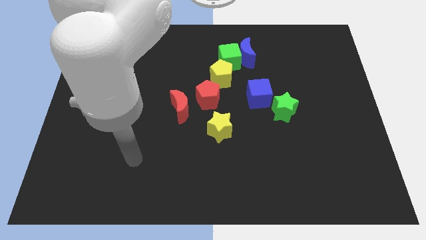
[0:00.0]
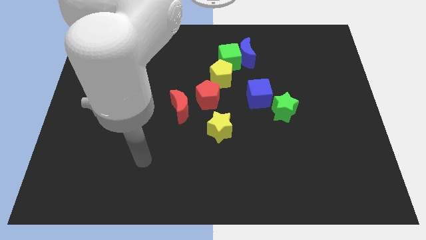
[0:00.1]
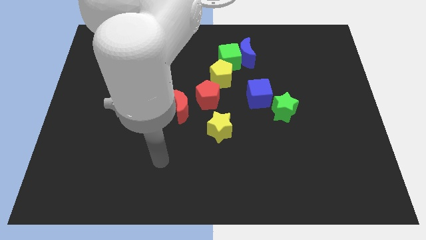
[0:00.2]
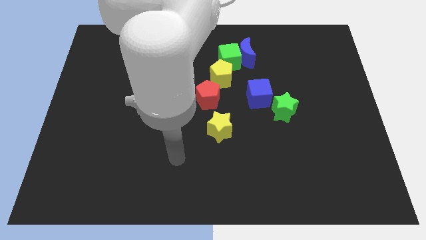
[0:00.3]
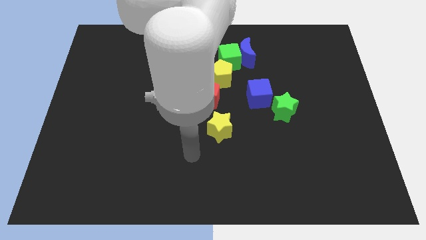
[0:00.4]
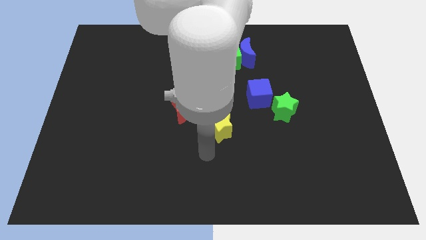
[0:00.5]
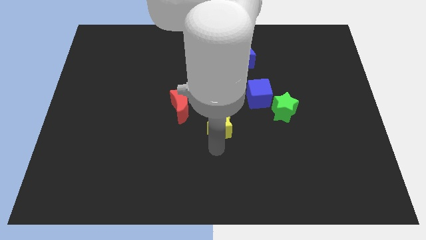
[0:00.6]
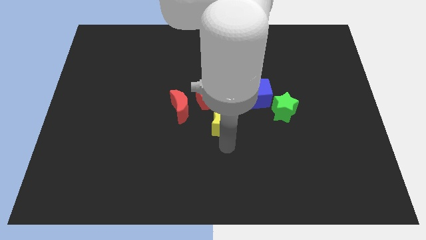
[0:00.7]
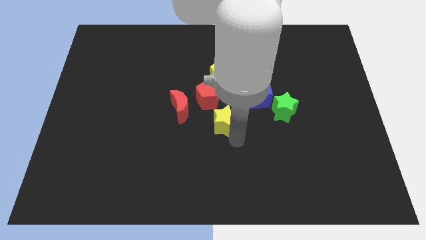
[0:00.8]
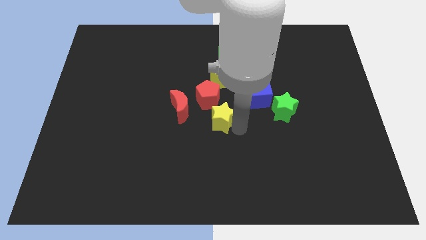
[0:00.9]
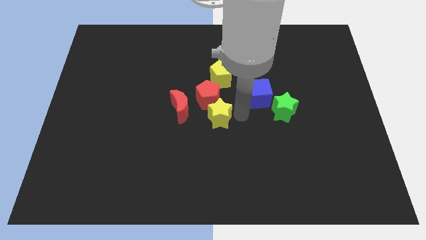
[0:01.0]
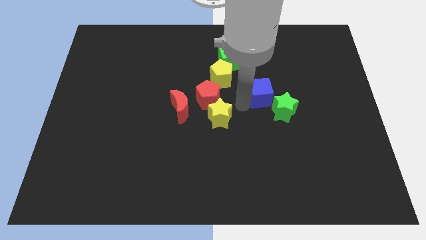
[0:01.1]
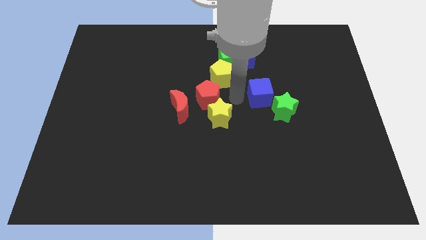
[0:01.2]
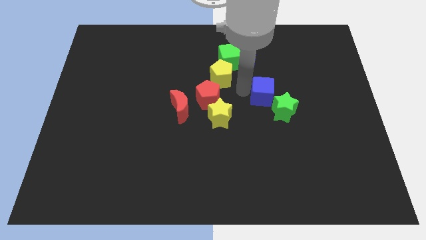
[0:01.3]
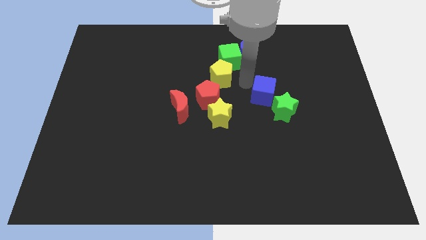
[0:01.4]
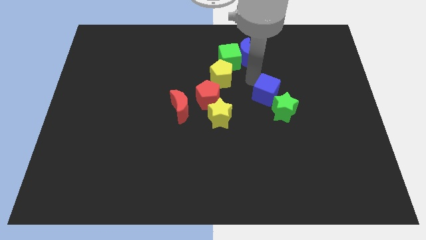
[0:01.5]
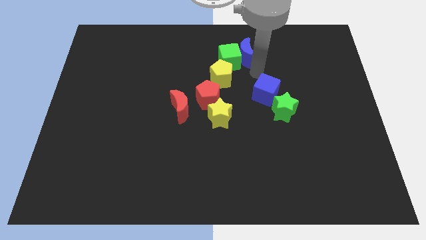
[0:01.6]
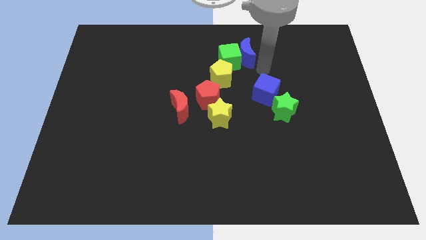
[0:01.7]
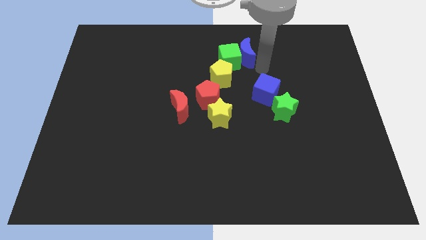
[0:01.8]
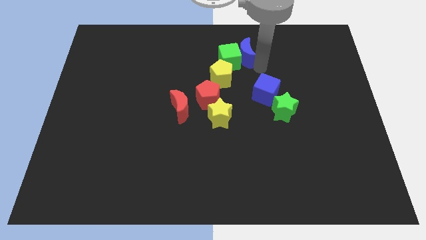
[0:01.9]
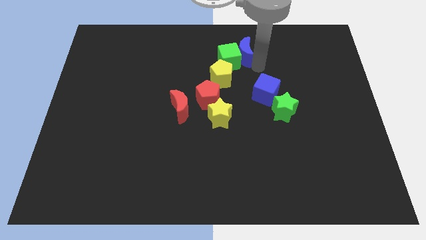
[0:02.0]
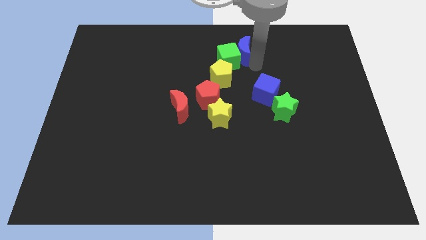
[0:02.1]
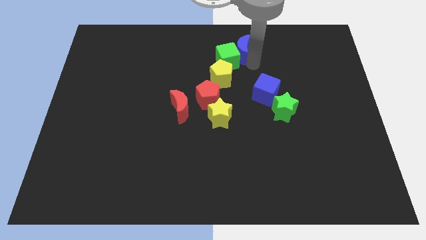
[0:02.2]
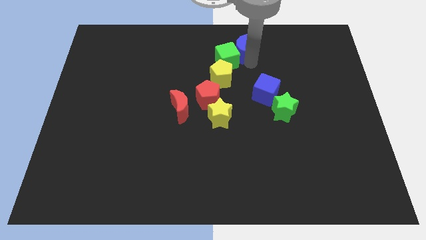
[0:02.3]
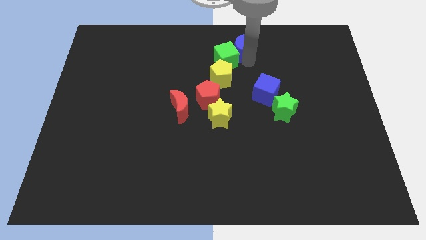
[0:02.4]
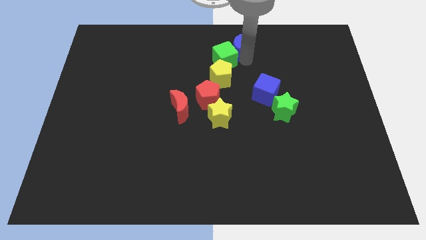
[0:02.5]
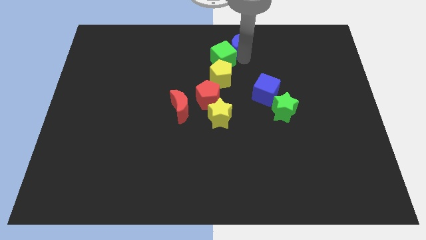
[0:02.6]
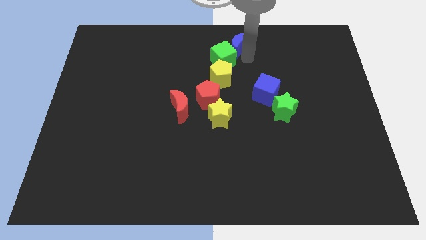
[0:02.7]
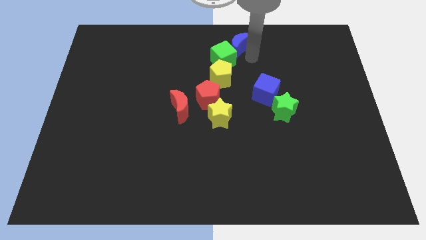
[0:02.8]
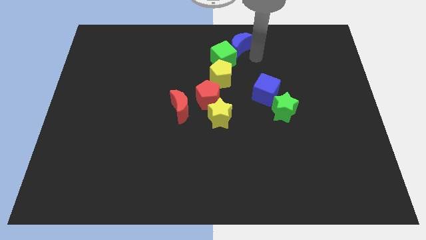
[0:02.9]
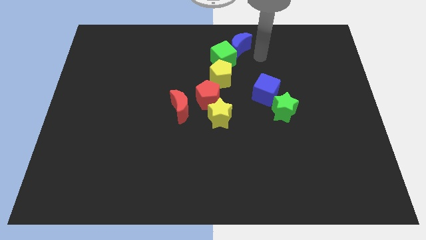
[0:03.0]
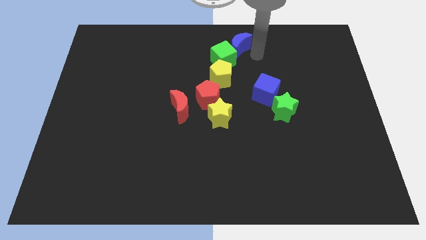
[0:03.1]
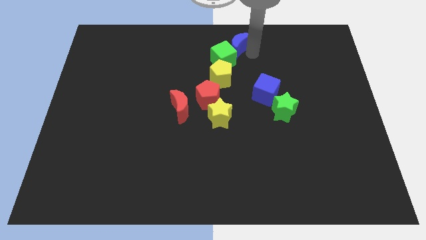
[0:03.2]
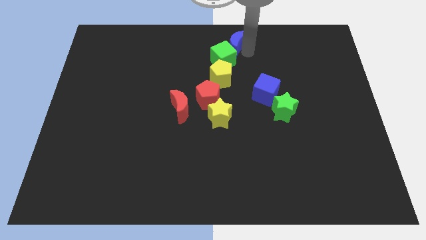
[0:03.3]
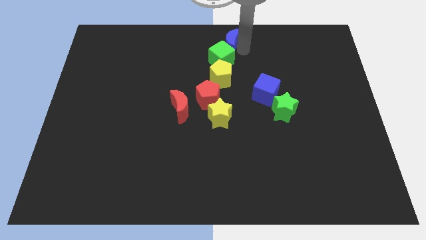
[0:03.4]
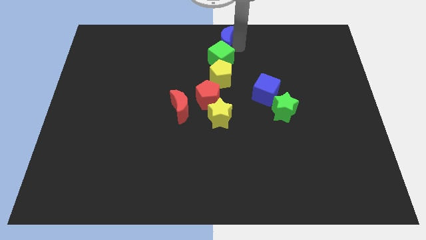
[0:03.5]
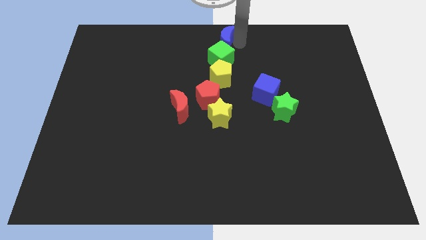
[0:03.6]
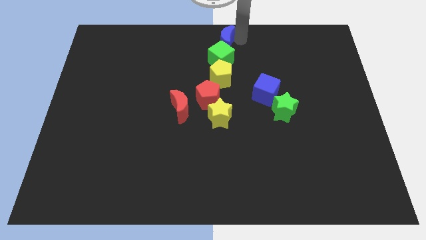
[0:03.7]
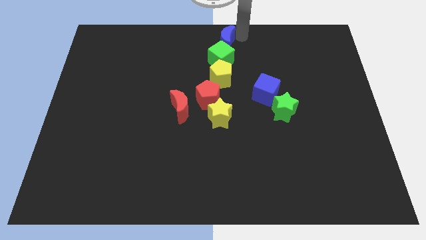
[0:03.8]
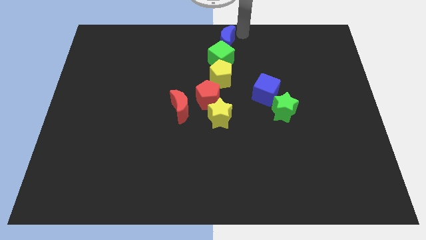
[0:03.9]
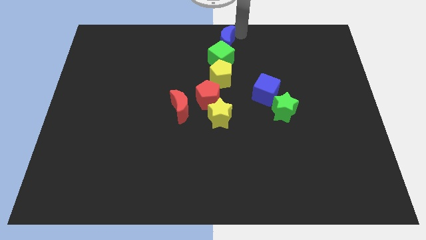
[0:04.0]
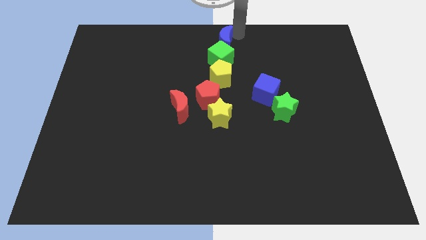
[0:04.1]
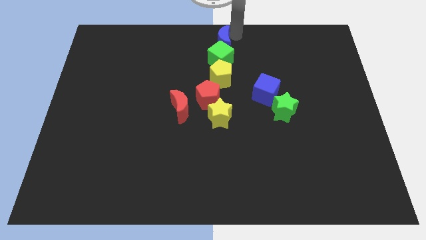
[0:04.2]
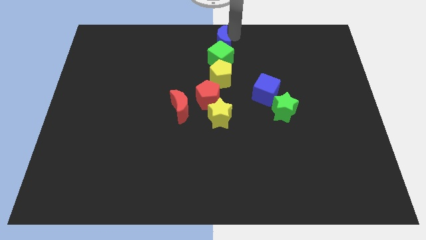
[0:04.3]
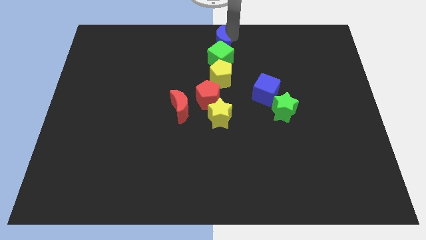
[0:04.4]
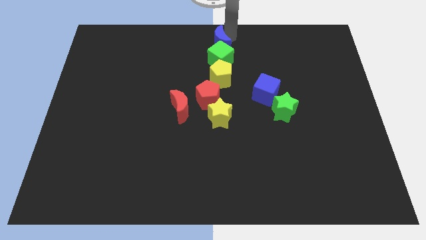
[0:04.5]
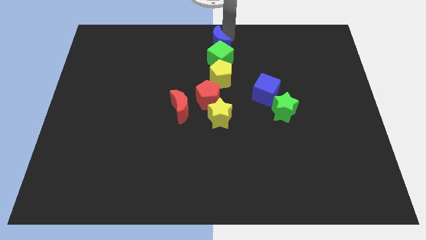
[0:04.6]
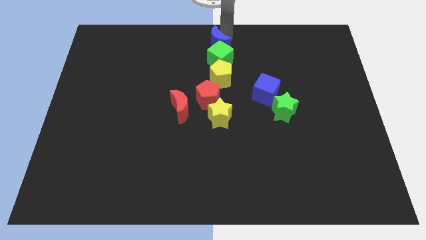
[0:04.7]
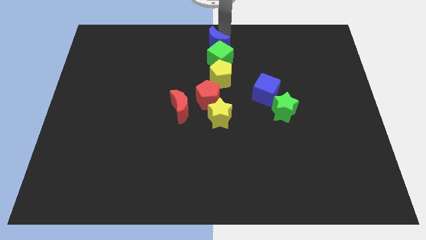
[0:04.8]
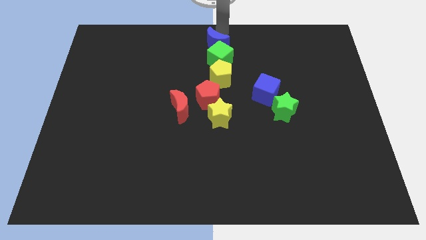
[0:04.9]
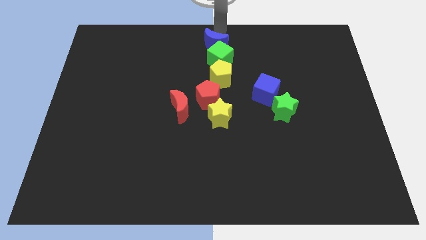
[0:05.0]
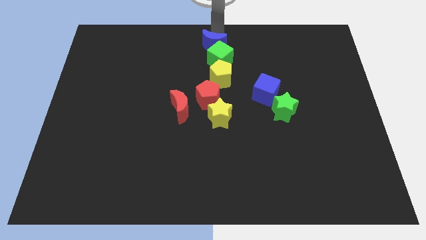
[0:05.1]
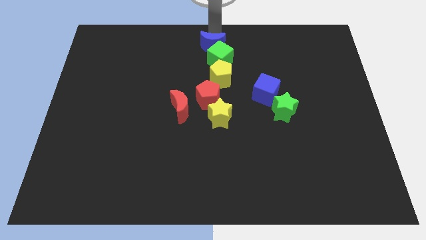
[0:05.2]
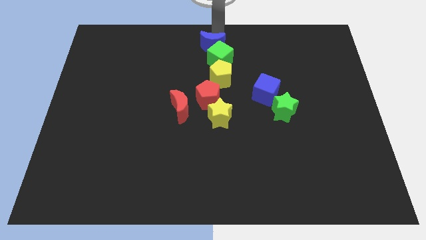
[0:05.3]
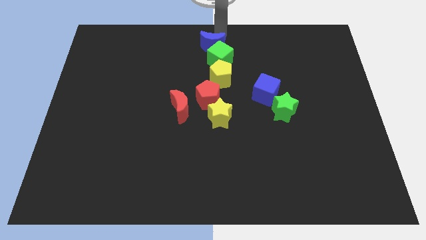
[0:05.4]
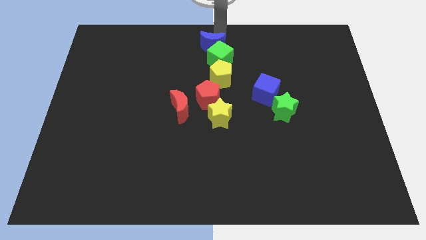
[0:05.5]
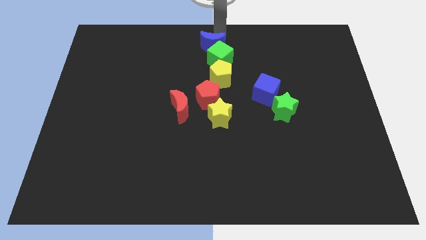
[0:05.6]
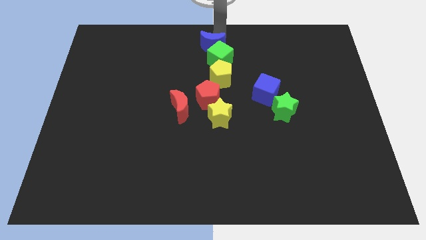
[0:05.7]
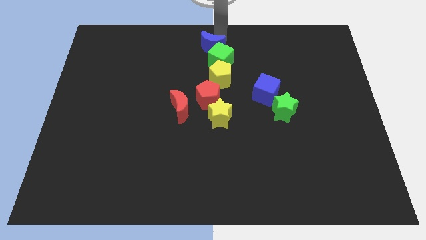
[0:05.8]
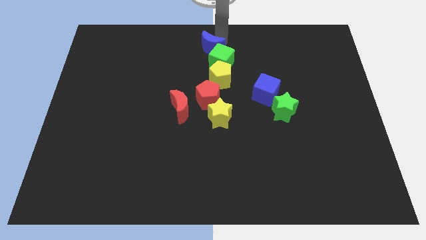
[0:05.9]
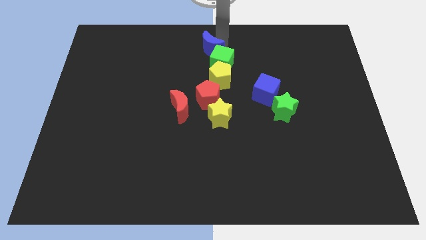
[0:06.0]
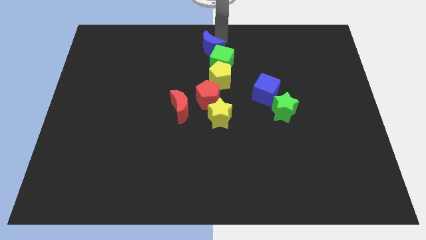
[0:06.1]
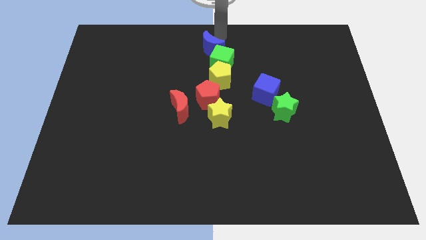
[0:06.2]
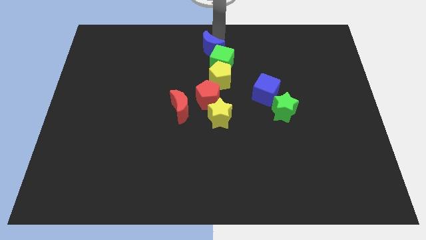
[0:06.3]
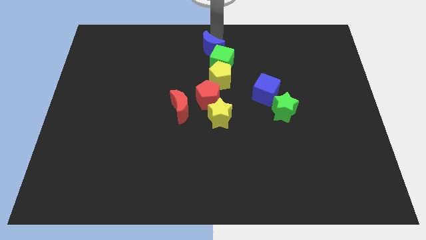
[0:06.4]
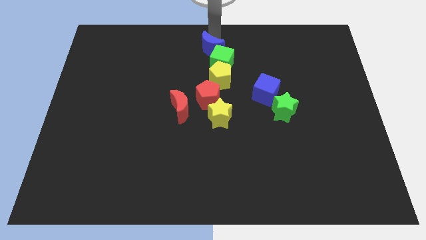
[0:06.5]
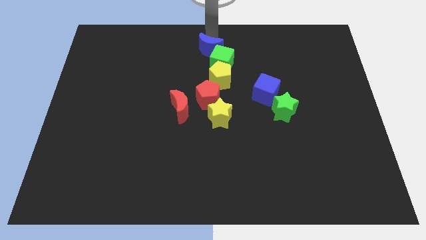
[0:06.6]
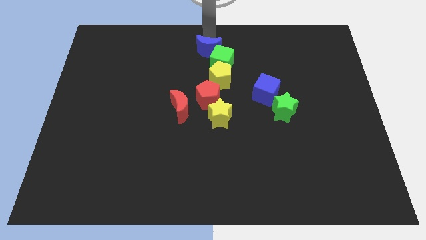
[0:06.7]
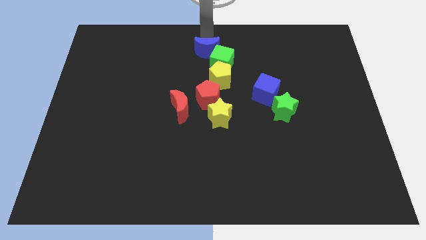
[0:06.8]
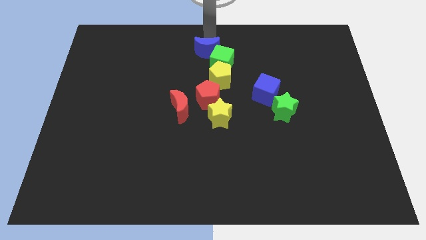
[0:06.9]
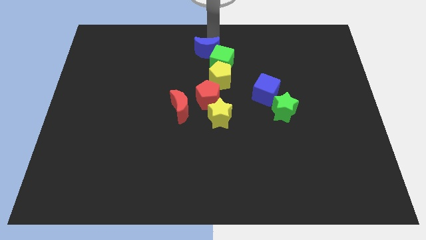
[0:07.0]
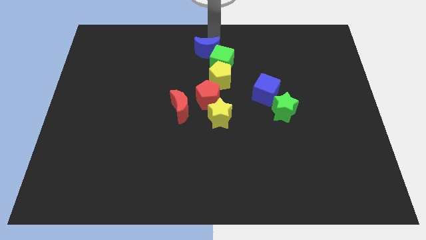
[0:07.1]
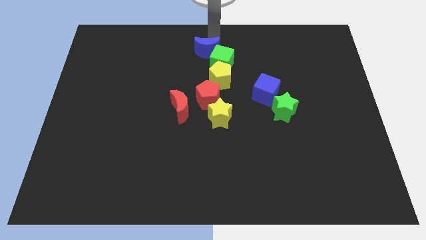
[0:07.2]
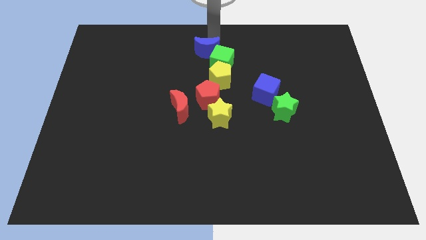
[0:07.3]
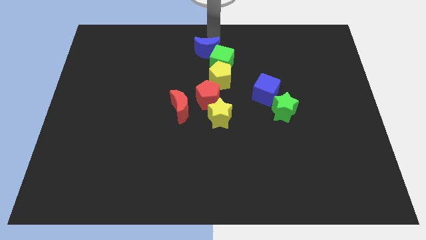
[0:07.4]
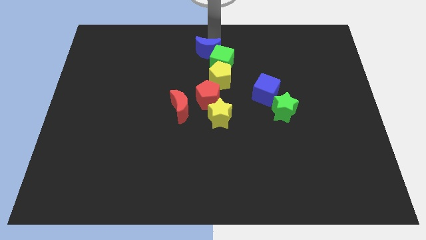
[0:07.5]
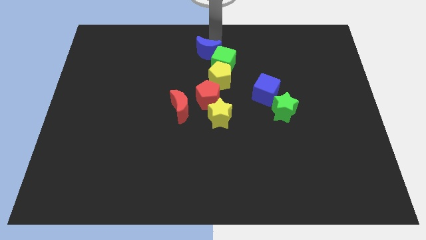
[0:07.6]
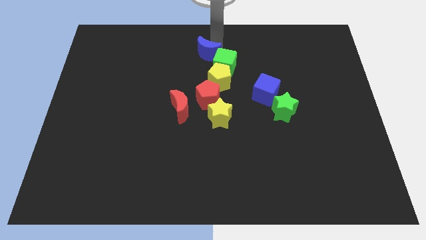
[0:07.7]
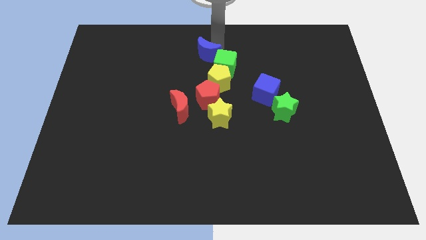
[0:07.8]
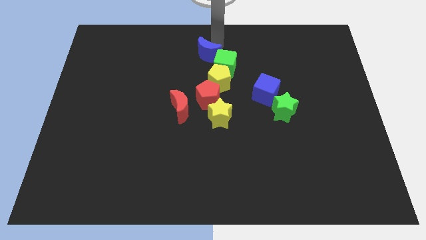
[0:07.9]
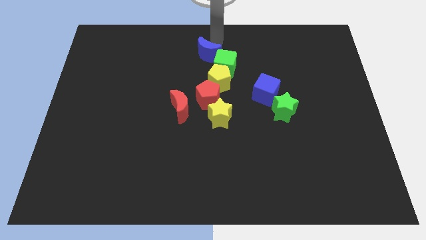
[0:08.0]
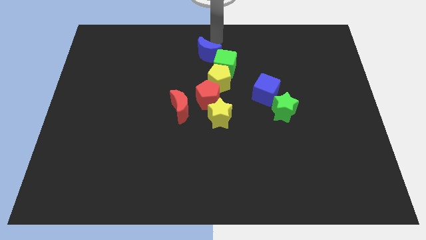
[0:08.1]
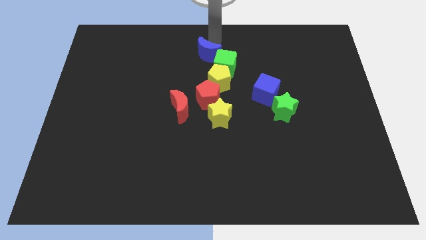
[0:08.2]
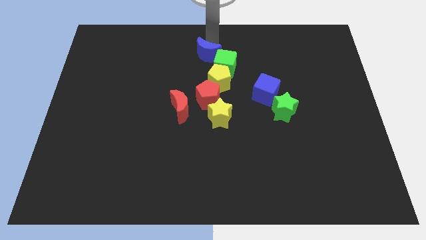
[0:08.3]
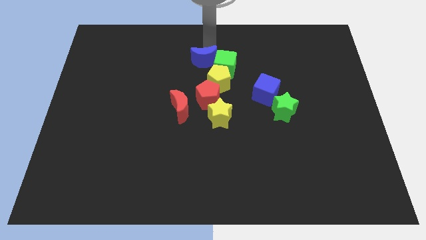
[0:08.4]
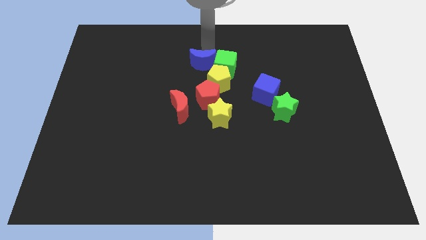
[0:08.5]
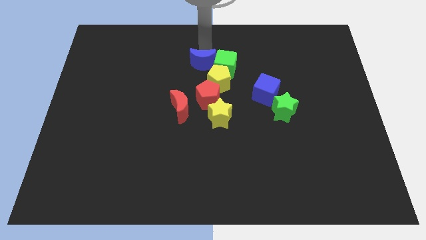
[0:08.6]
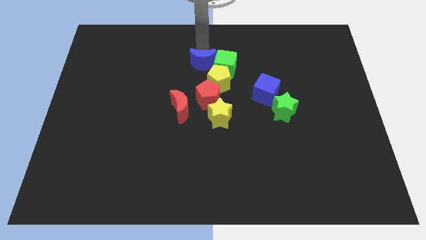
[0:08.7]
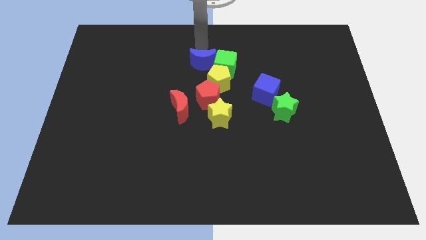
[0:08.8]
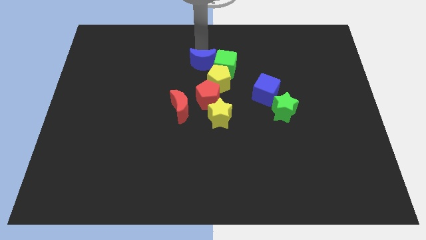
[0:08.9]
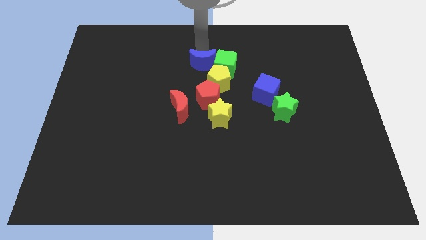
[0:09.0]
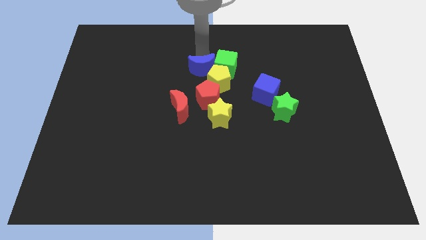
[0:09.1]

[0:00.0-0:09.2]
move the blue moon to the bottom left side of the green cube
